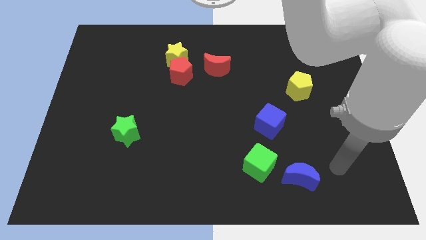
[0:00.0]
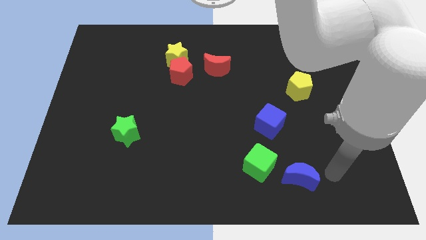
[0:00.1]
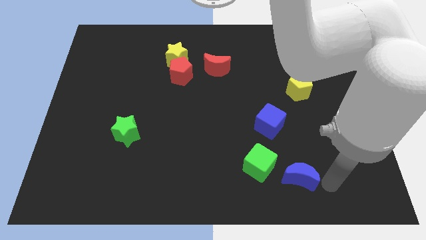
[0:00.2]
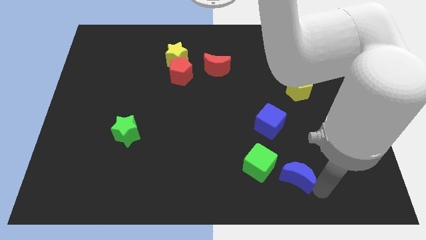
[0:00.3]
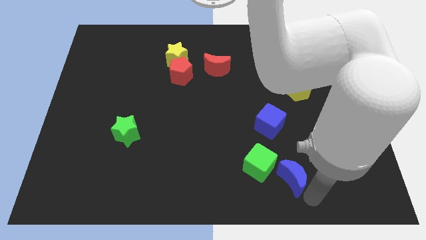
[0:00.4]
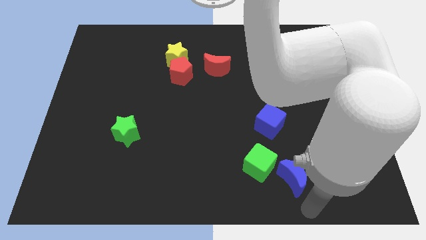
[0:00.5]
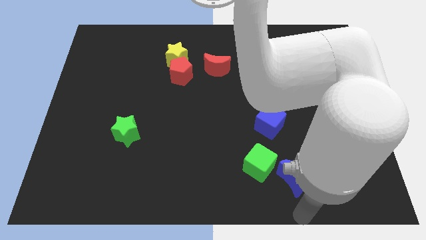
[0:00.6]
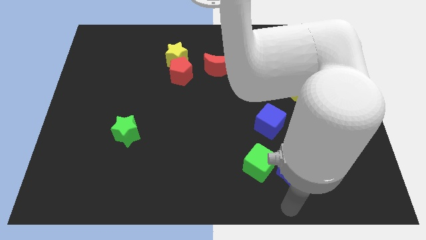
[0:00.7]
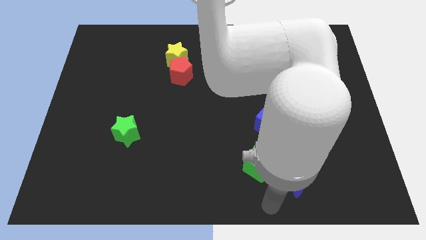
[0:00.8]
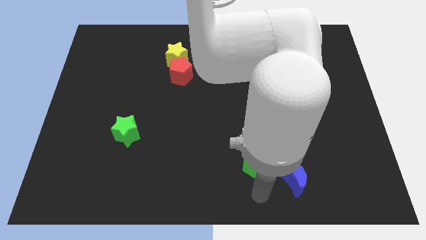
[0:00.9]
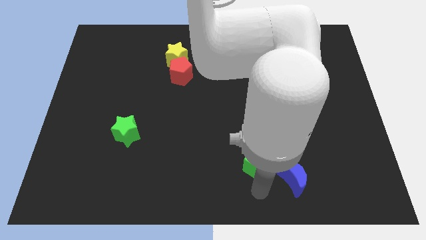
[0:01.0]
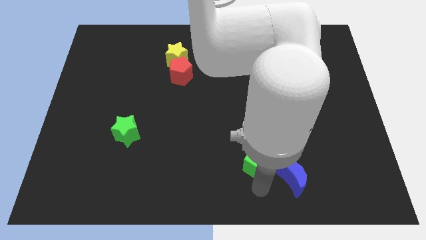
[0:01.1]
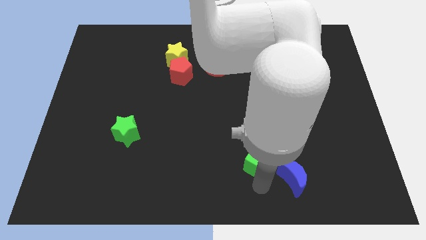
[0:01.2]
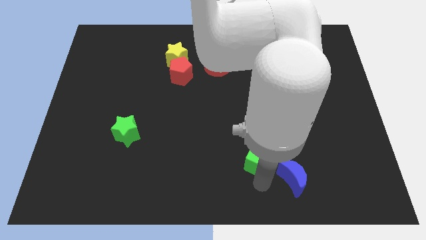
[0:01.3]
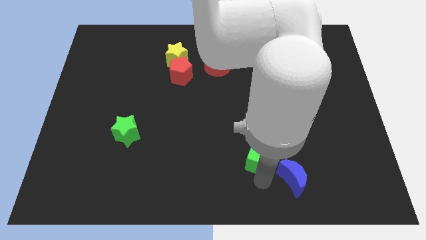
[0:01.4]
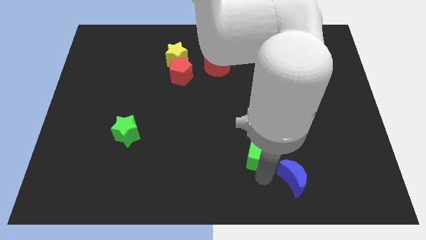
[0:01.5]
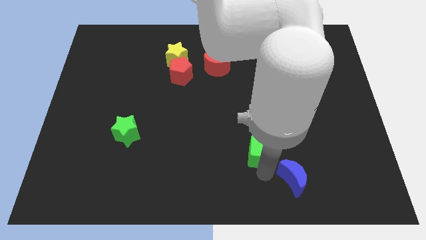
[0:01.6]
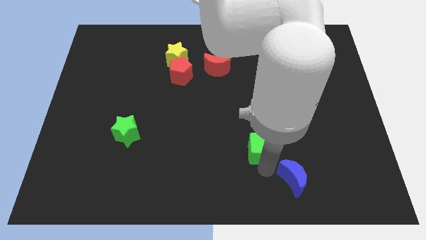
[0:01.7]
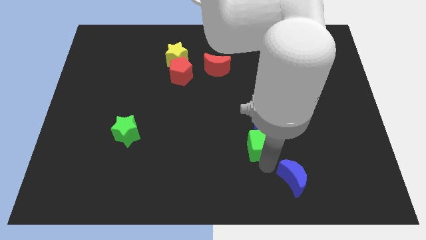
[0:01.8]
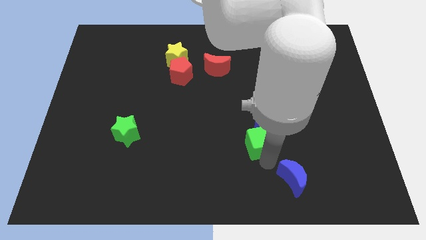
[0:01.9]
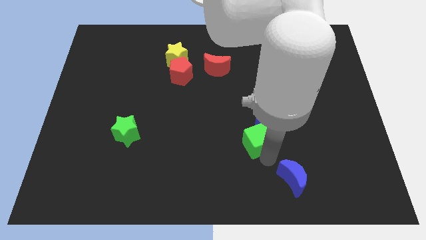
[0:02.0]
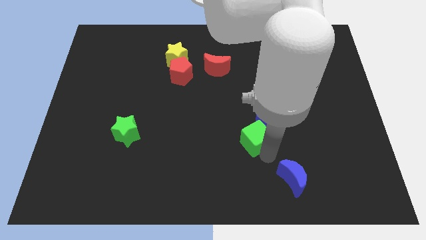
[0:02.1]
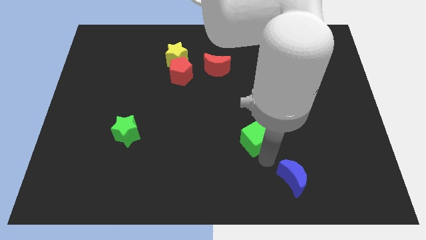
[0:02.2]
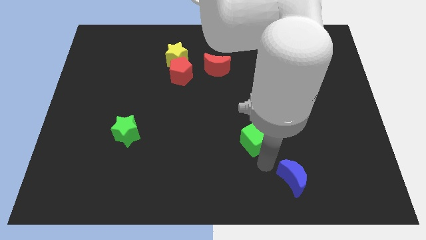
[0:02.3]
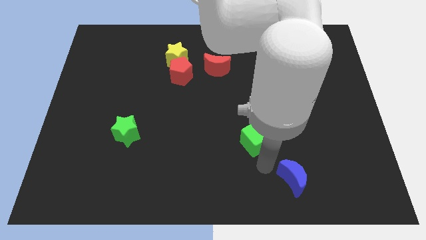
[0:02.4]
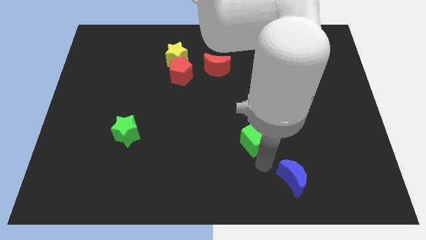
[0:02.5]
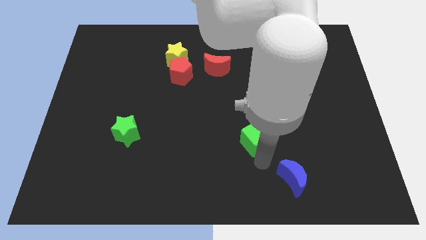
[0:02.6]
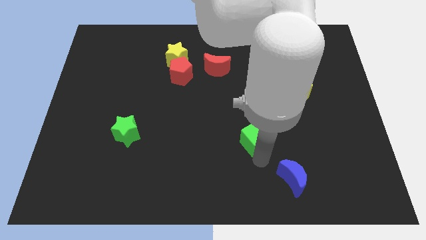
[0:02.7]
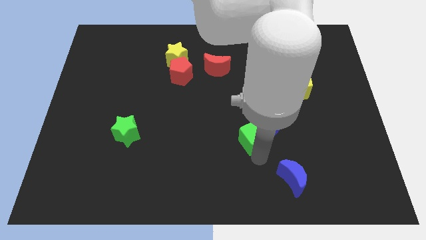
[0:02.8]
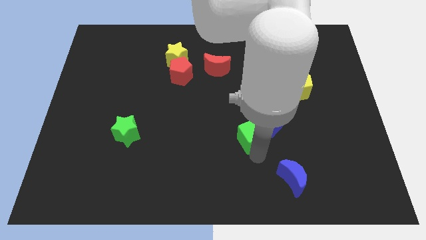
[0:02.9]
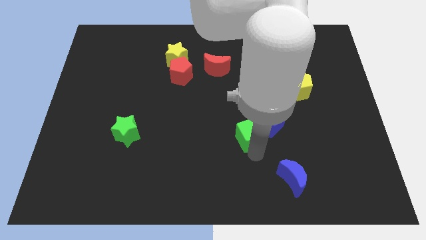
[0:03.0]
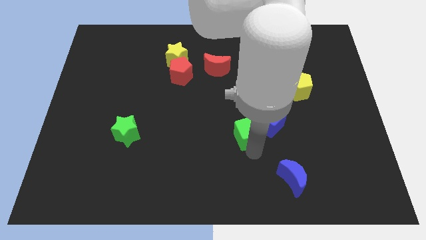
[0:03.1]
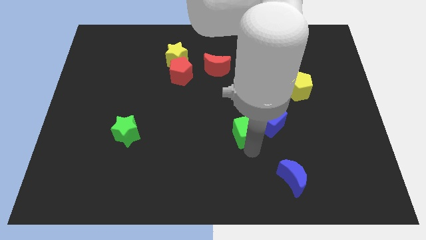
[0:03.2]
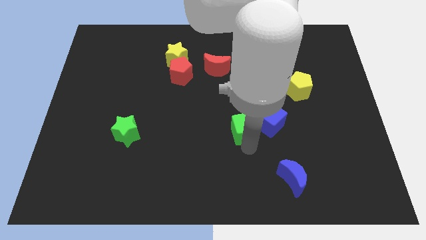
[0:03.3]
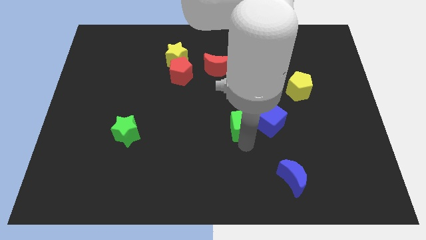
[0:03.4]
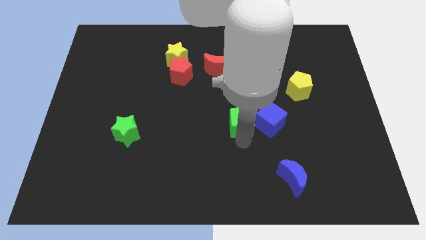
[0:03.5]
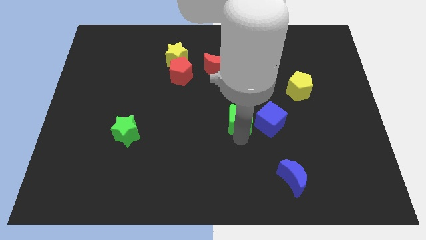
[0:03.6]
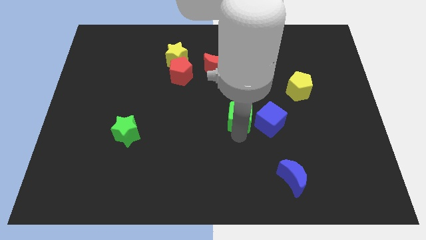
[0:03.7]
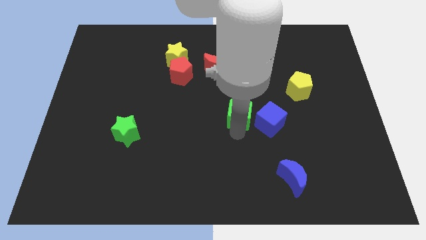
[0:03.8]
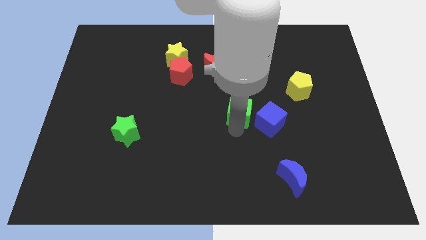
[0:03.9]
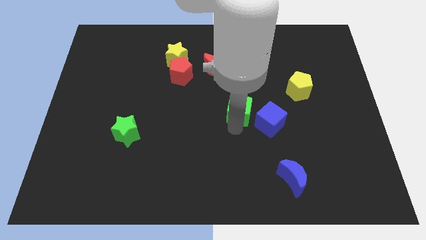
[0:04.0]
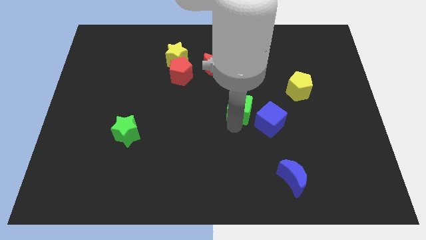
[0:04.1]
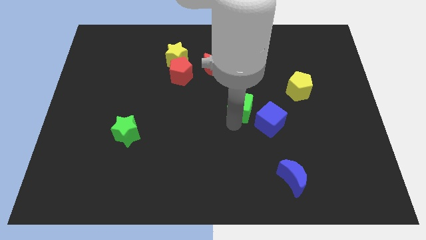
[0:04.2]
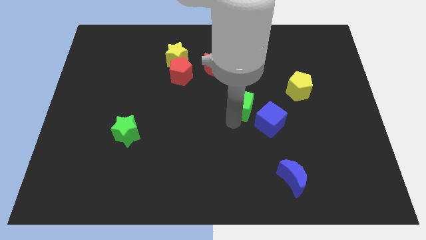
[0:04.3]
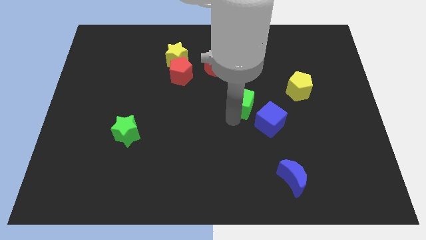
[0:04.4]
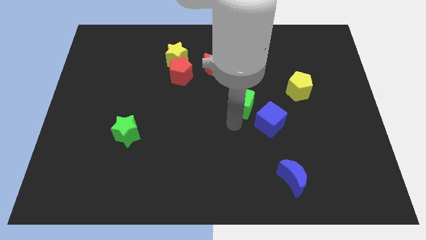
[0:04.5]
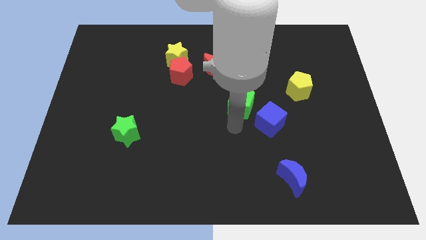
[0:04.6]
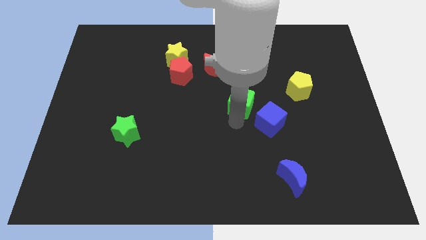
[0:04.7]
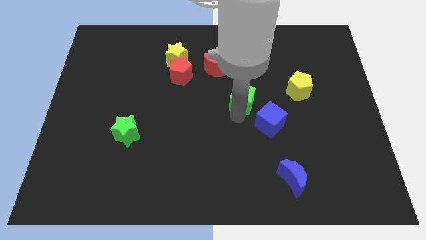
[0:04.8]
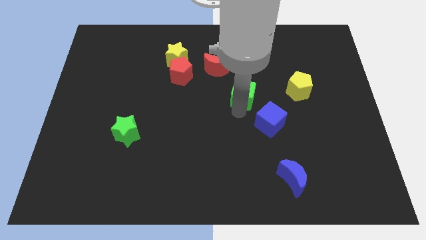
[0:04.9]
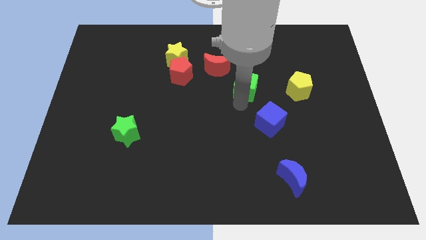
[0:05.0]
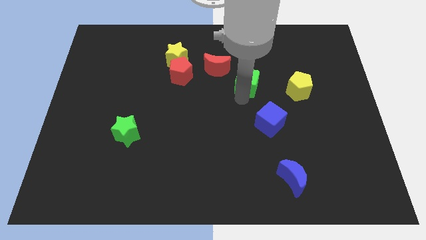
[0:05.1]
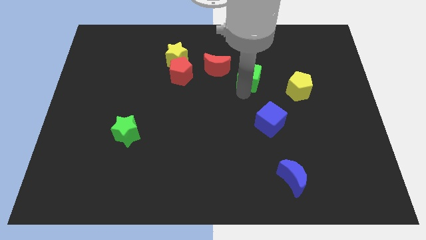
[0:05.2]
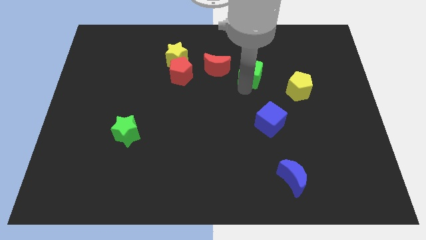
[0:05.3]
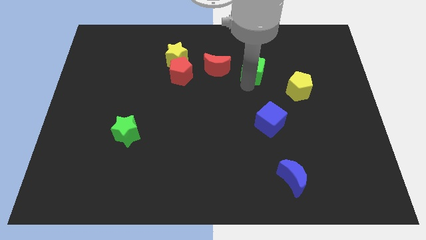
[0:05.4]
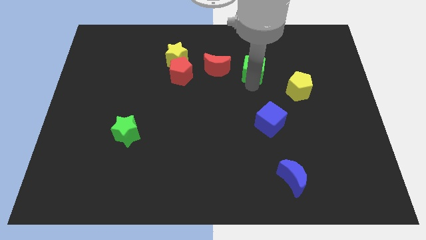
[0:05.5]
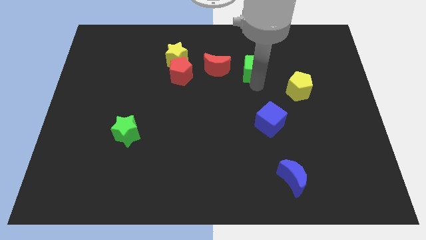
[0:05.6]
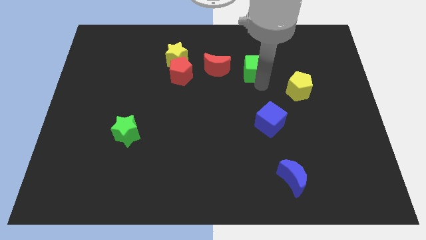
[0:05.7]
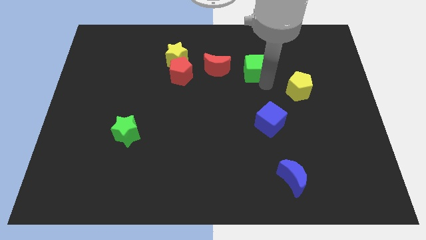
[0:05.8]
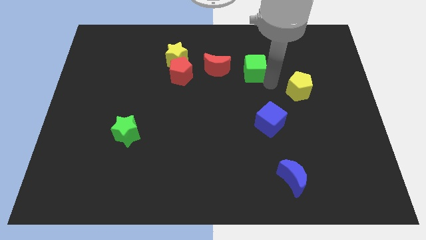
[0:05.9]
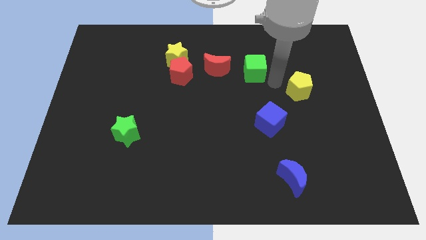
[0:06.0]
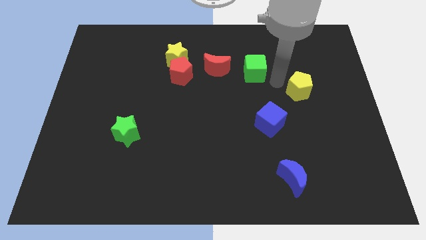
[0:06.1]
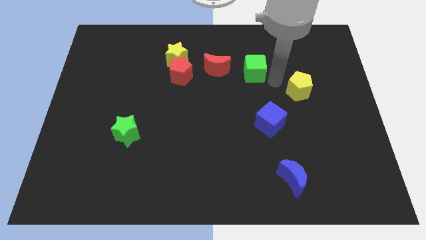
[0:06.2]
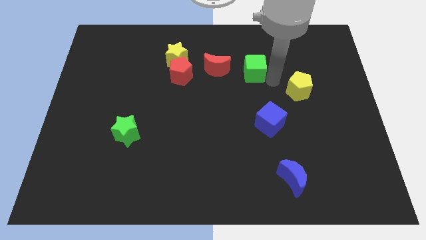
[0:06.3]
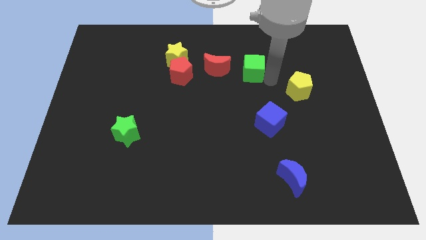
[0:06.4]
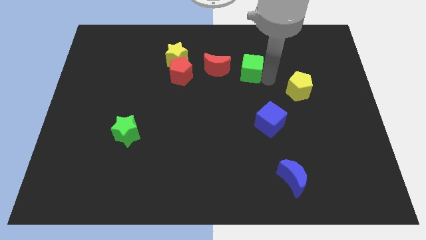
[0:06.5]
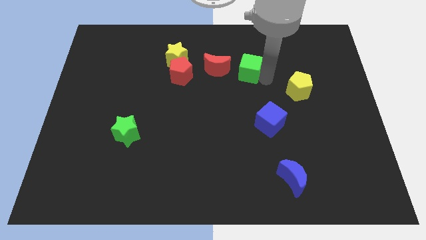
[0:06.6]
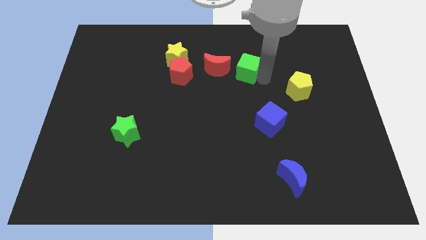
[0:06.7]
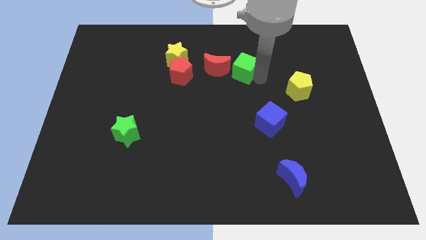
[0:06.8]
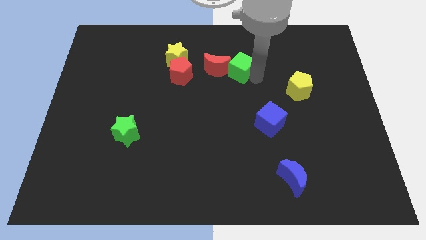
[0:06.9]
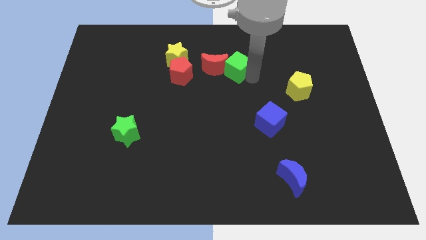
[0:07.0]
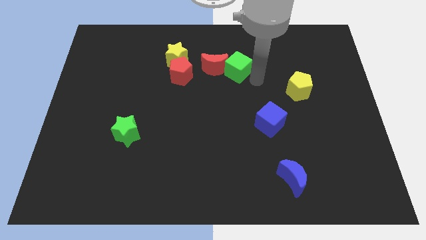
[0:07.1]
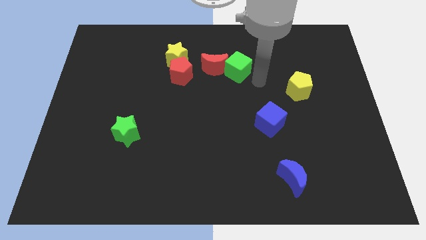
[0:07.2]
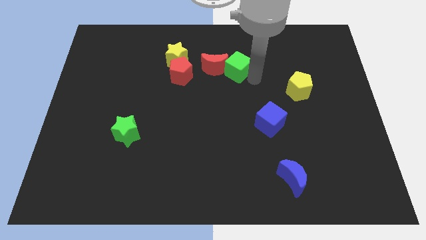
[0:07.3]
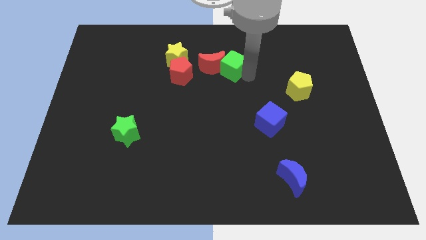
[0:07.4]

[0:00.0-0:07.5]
move the green cube just right of the yellow star
